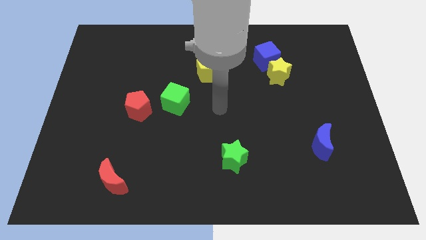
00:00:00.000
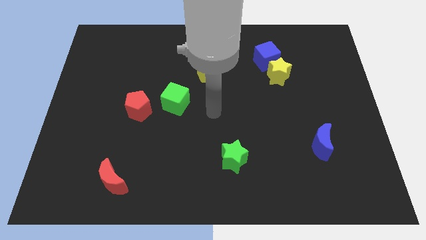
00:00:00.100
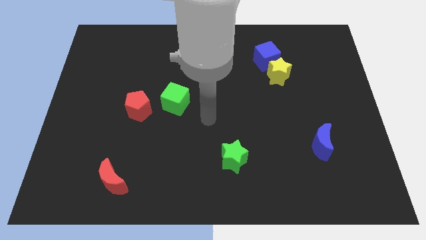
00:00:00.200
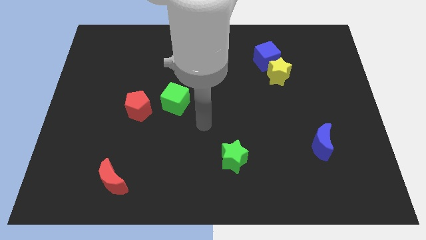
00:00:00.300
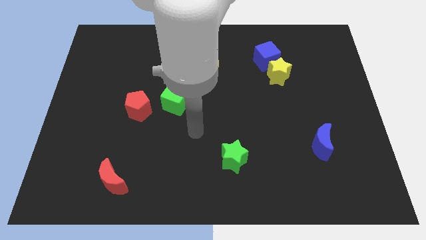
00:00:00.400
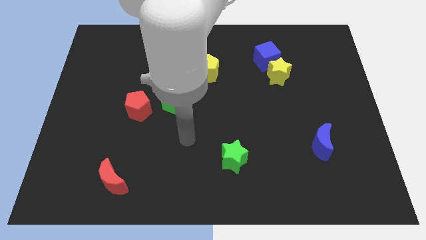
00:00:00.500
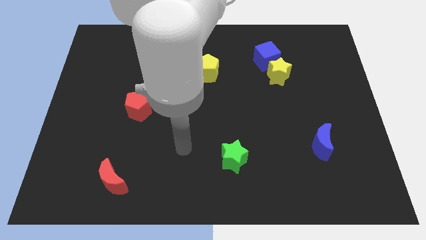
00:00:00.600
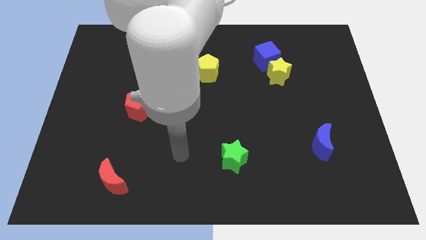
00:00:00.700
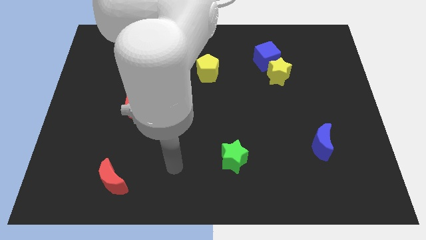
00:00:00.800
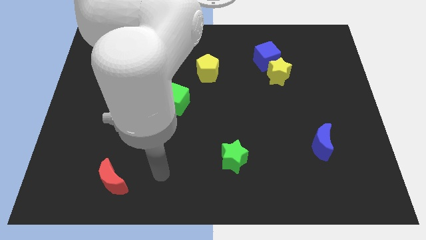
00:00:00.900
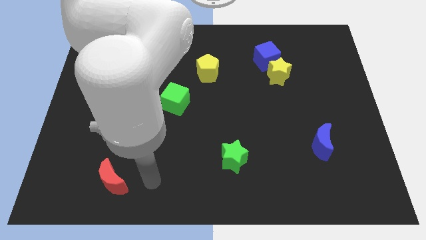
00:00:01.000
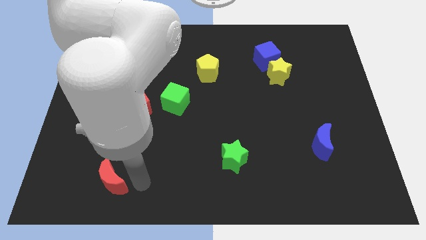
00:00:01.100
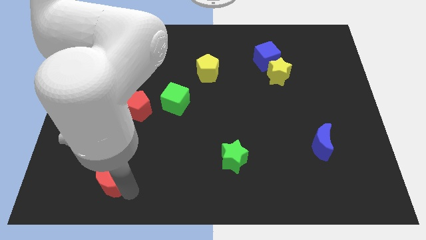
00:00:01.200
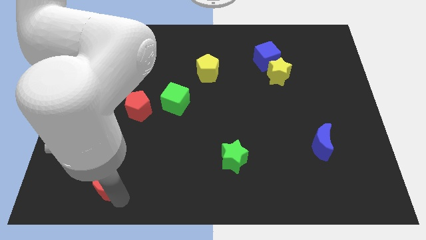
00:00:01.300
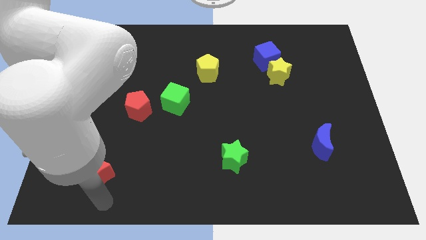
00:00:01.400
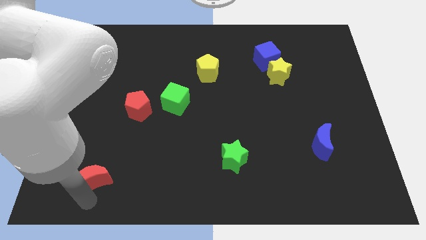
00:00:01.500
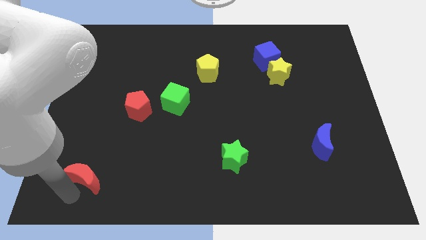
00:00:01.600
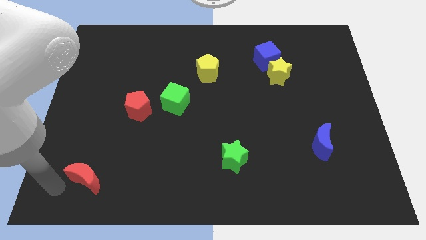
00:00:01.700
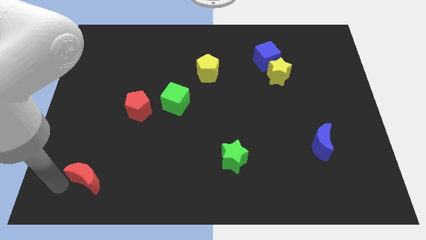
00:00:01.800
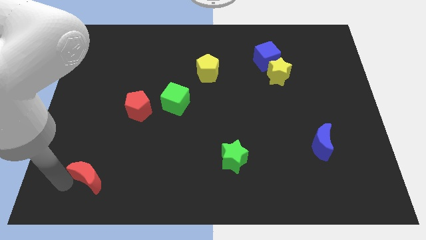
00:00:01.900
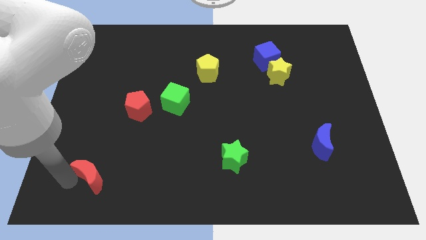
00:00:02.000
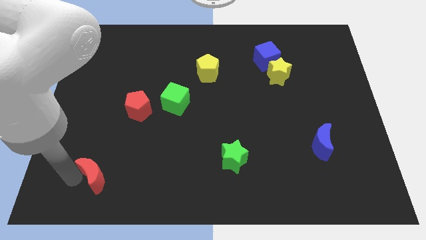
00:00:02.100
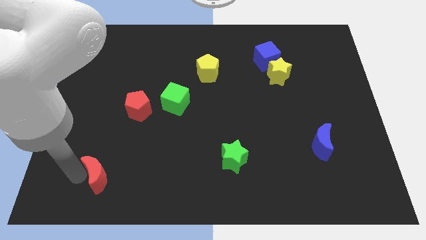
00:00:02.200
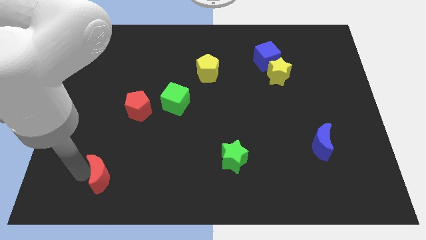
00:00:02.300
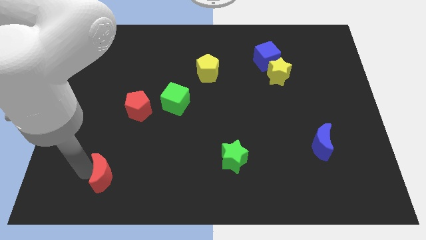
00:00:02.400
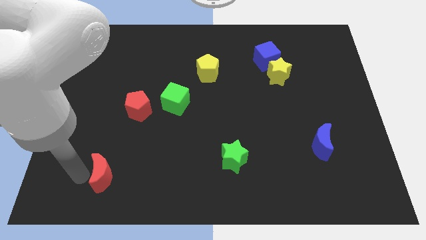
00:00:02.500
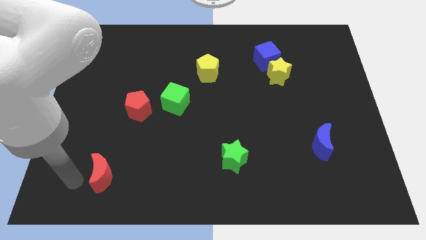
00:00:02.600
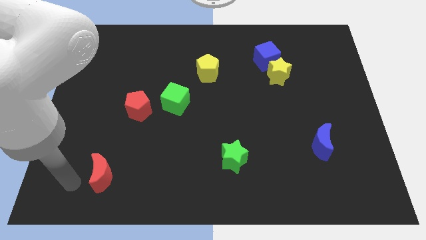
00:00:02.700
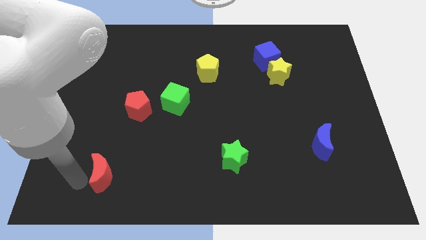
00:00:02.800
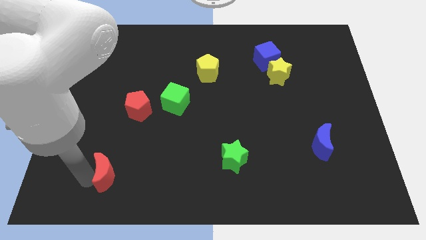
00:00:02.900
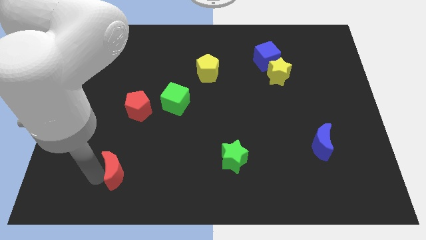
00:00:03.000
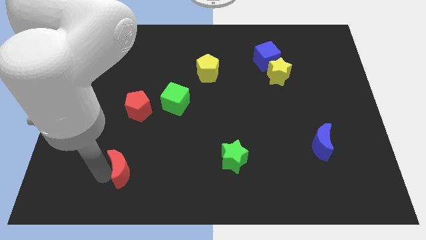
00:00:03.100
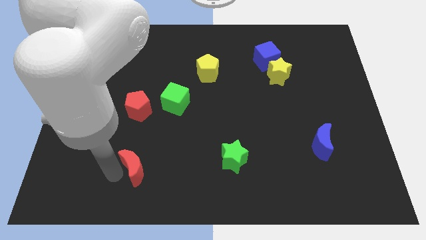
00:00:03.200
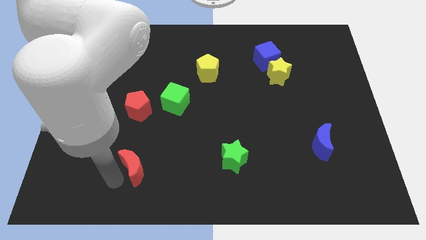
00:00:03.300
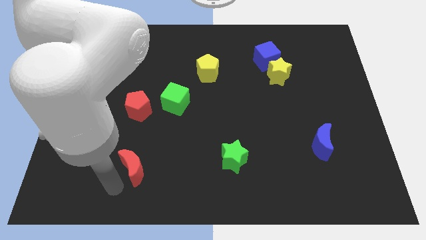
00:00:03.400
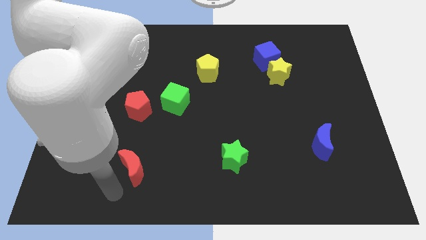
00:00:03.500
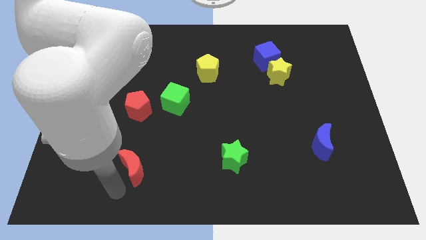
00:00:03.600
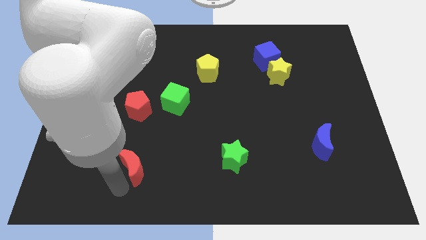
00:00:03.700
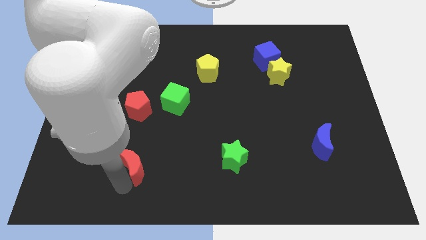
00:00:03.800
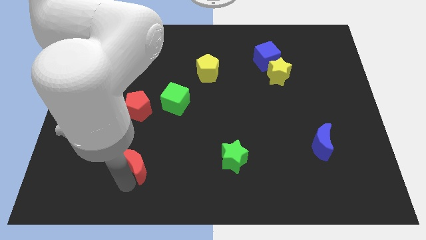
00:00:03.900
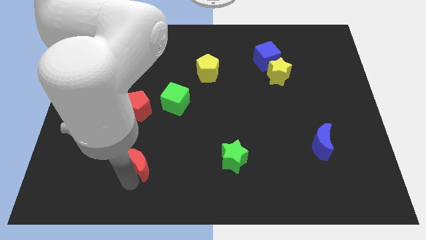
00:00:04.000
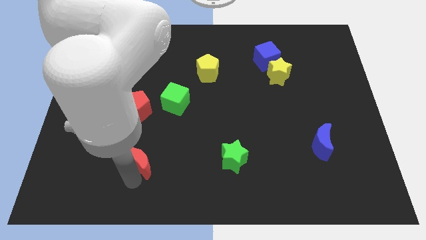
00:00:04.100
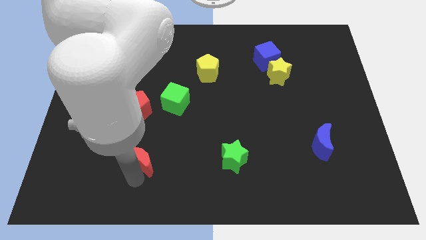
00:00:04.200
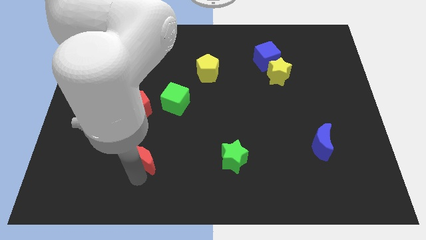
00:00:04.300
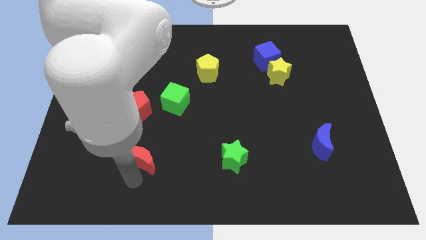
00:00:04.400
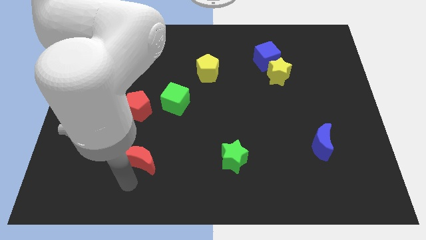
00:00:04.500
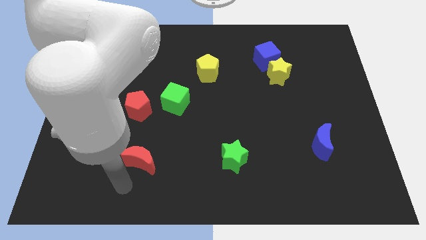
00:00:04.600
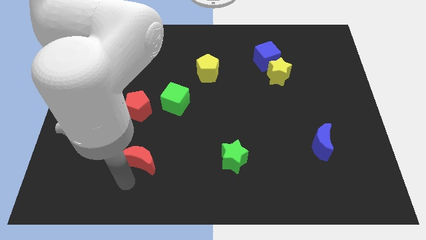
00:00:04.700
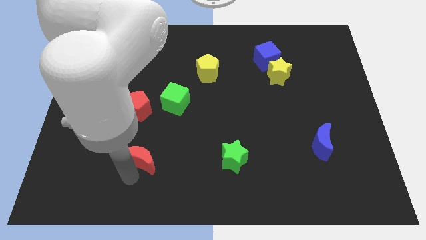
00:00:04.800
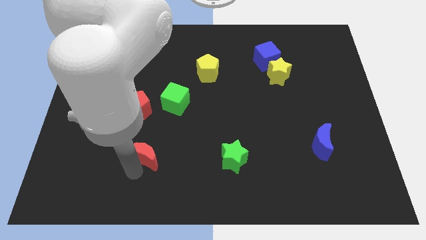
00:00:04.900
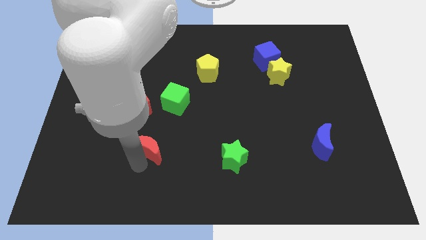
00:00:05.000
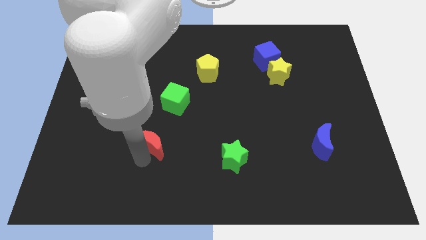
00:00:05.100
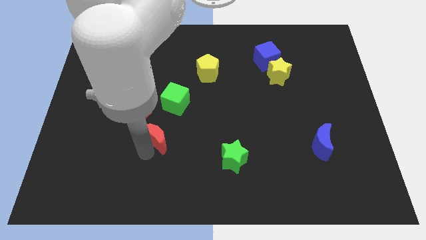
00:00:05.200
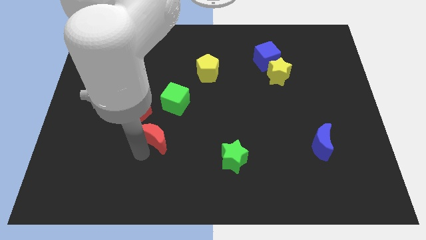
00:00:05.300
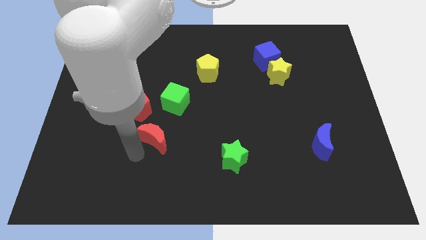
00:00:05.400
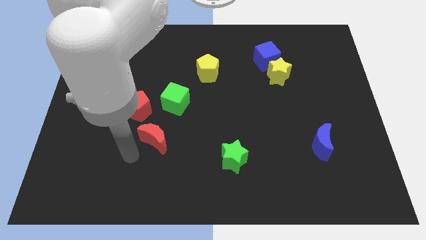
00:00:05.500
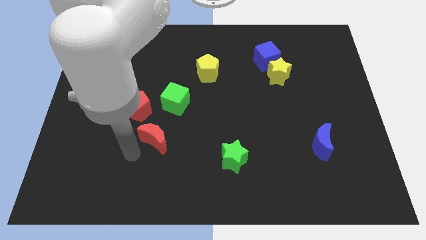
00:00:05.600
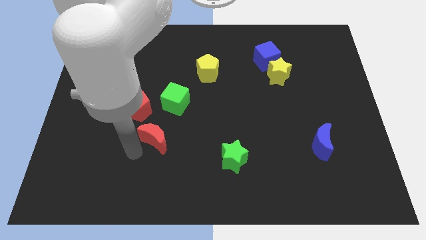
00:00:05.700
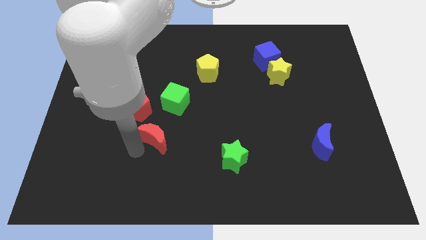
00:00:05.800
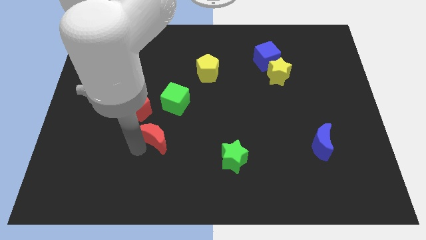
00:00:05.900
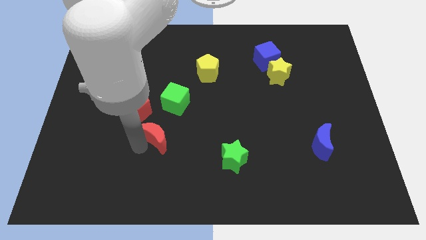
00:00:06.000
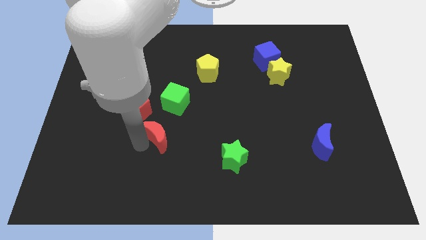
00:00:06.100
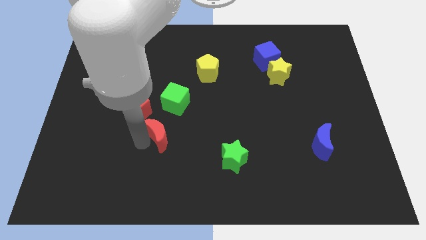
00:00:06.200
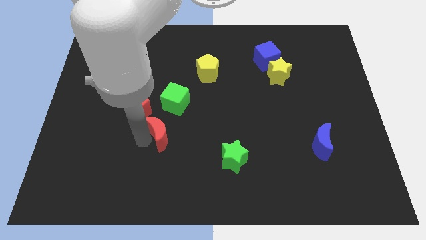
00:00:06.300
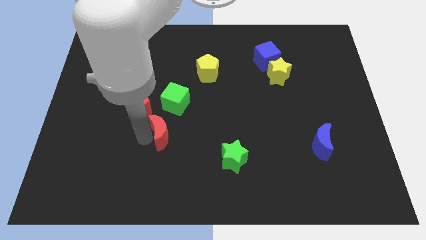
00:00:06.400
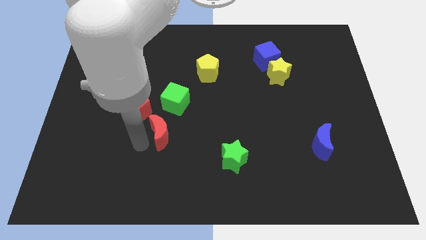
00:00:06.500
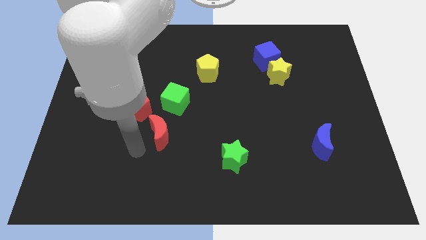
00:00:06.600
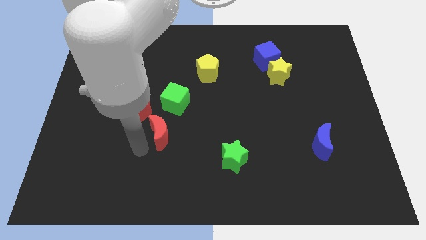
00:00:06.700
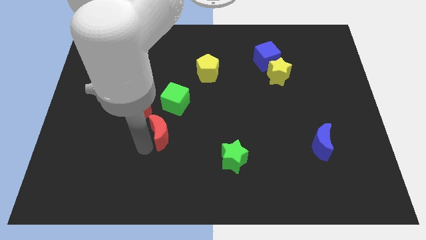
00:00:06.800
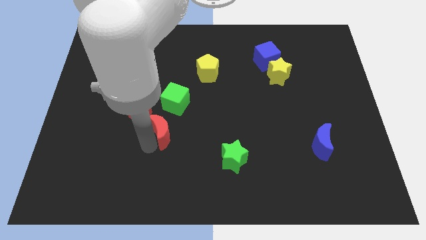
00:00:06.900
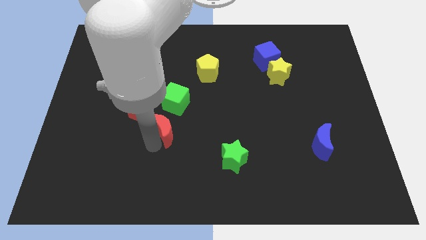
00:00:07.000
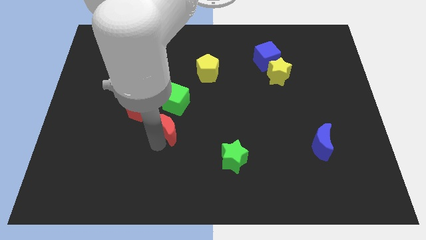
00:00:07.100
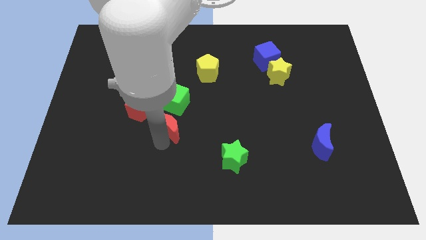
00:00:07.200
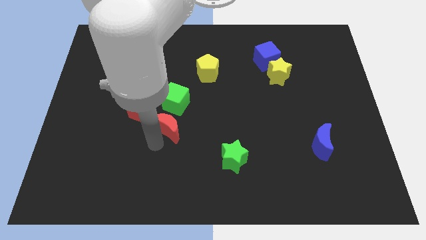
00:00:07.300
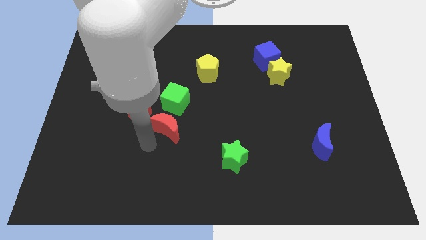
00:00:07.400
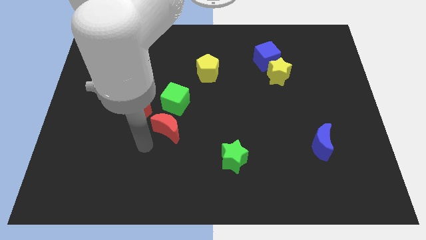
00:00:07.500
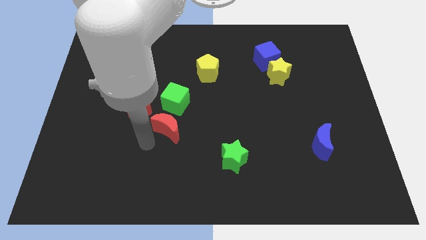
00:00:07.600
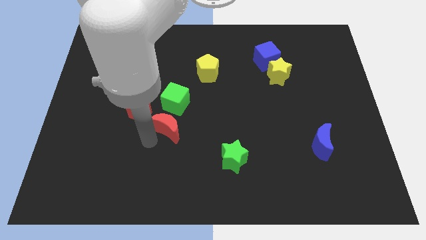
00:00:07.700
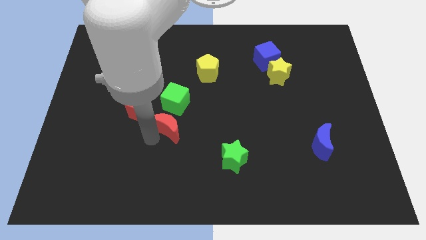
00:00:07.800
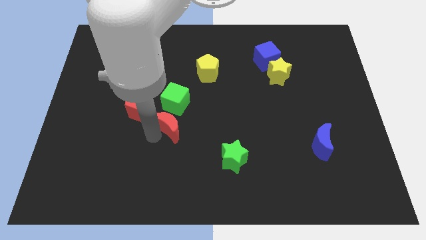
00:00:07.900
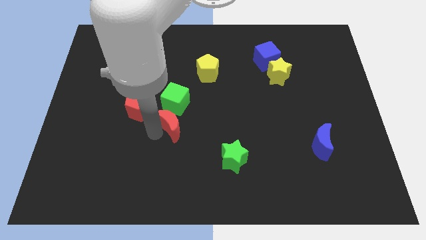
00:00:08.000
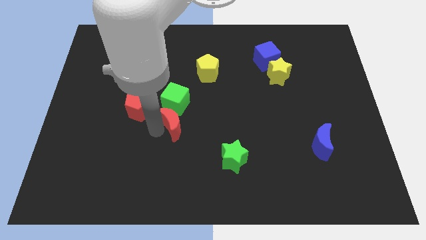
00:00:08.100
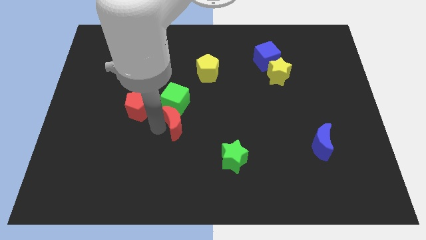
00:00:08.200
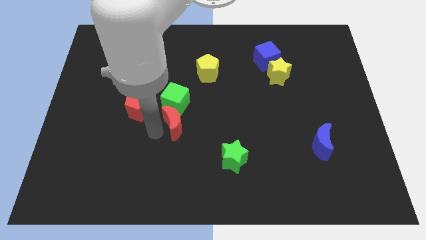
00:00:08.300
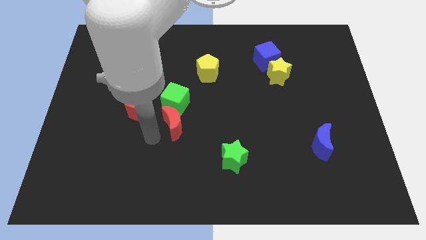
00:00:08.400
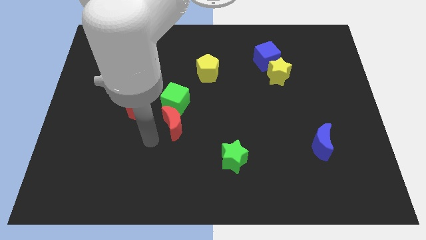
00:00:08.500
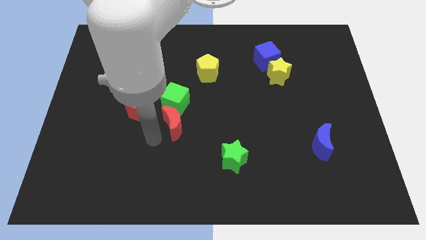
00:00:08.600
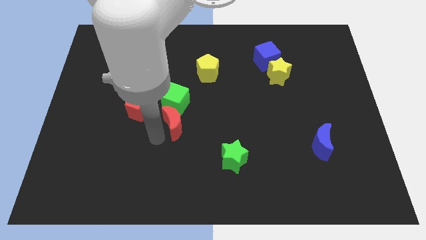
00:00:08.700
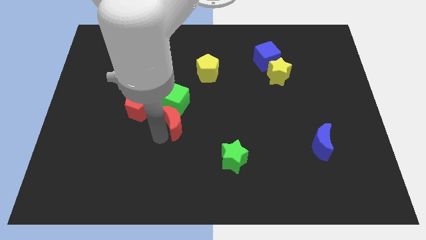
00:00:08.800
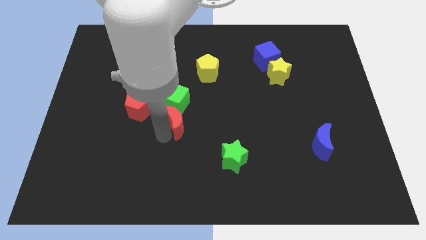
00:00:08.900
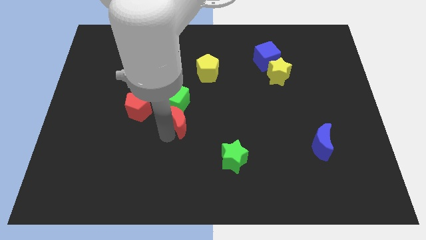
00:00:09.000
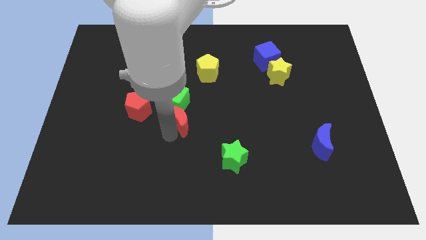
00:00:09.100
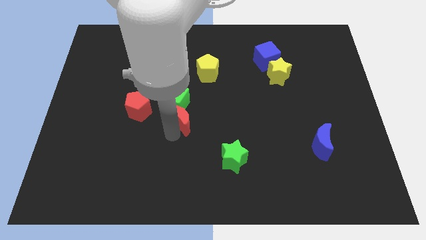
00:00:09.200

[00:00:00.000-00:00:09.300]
slide the red moon up and to the right
